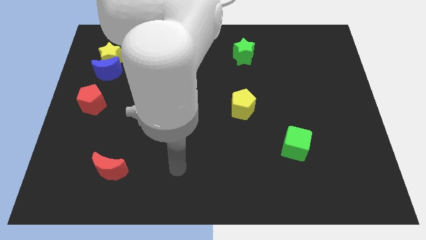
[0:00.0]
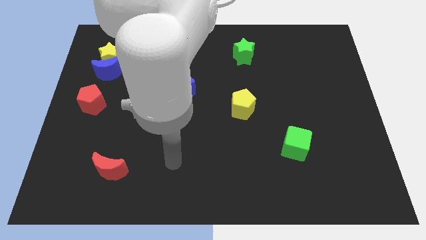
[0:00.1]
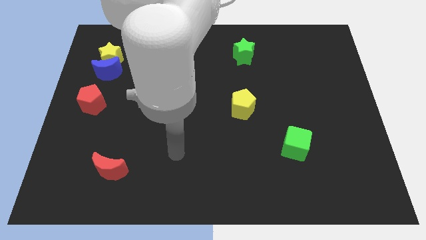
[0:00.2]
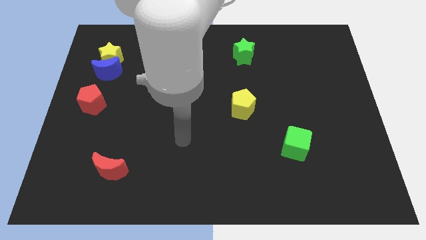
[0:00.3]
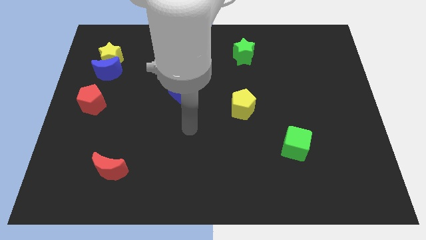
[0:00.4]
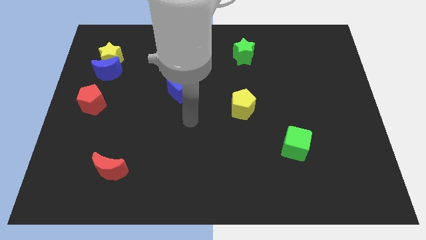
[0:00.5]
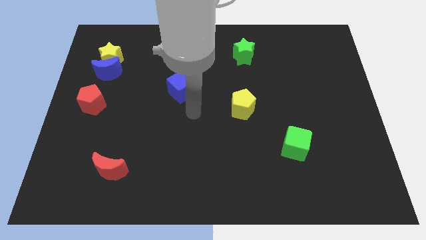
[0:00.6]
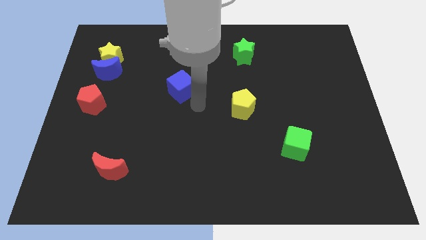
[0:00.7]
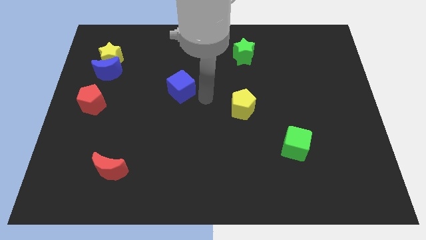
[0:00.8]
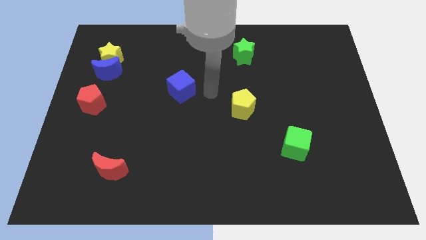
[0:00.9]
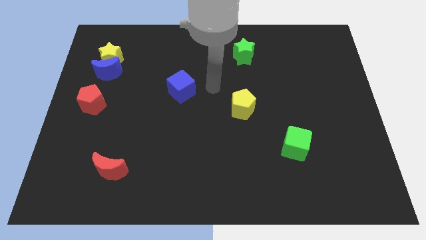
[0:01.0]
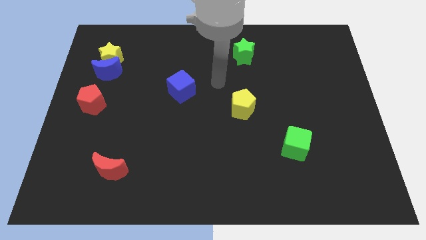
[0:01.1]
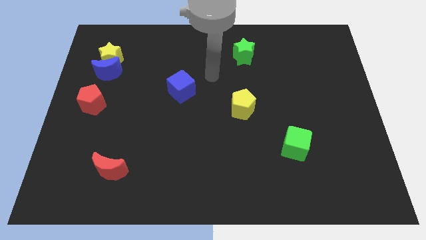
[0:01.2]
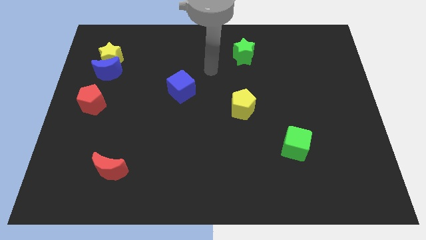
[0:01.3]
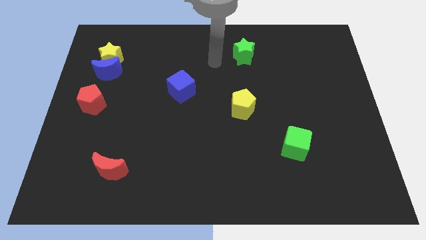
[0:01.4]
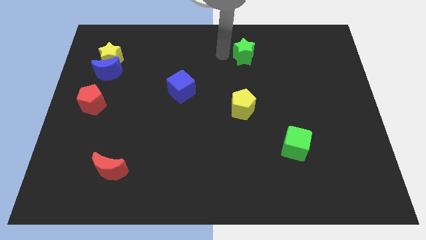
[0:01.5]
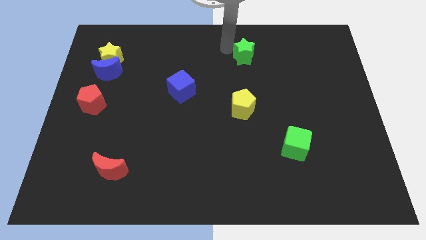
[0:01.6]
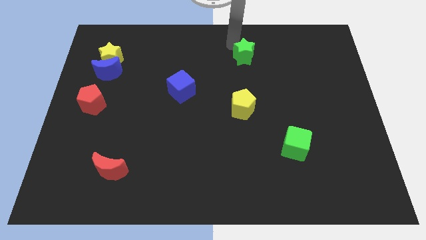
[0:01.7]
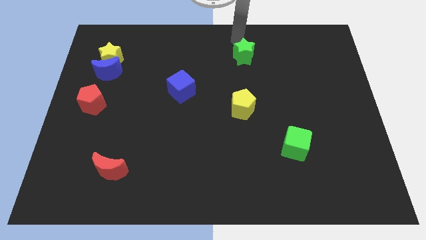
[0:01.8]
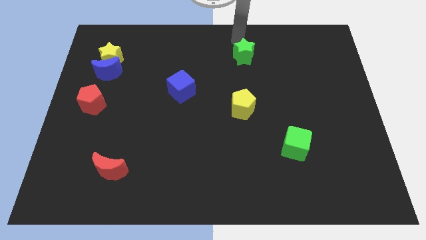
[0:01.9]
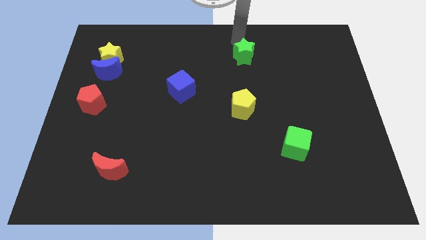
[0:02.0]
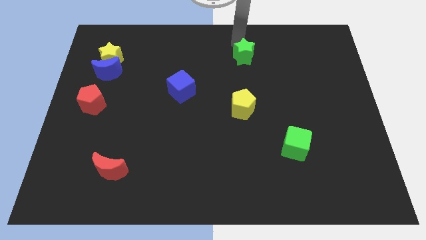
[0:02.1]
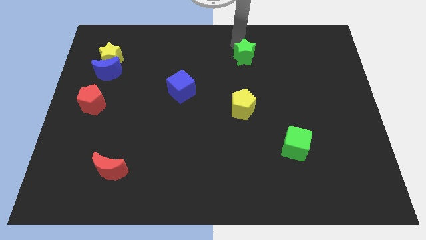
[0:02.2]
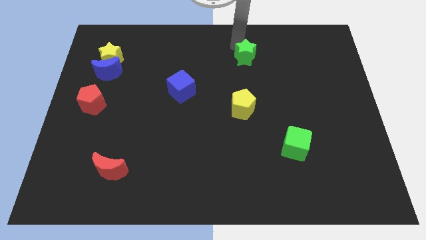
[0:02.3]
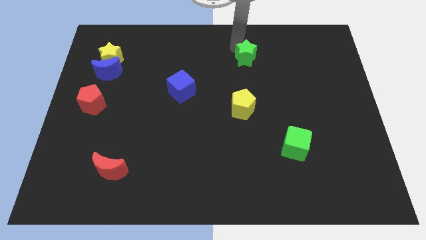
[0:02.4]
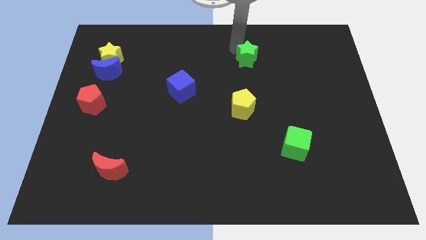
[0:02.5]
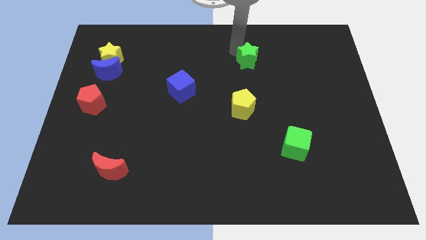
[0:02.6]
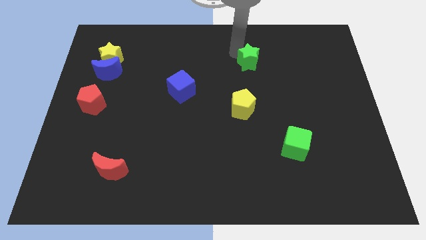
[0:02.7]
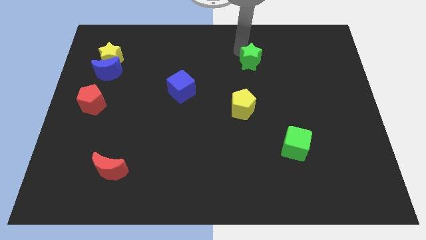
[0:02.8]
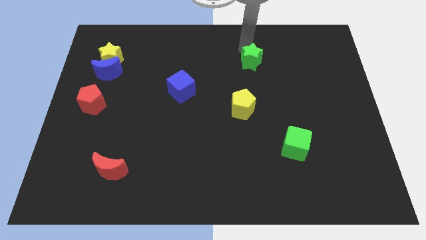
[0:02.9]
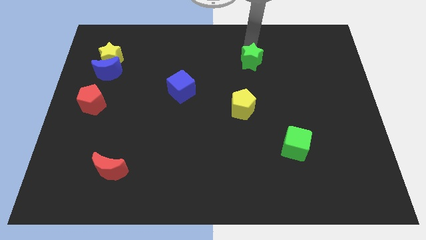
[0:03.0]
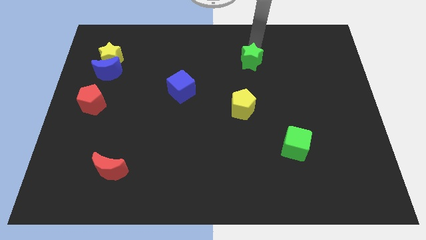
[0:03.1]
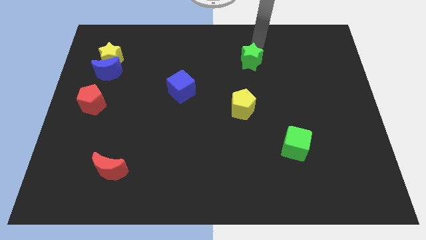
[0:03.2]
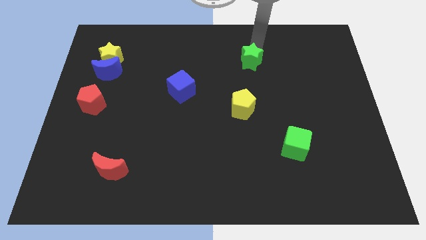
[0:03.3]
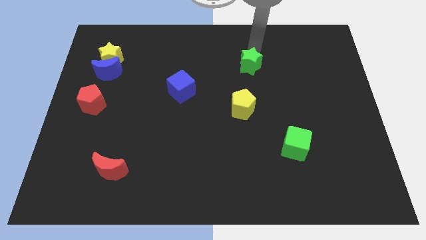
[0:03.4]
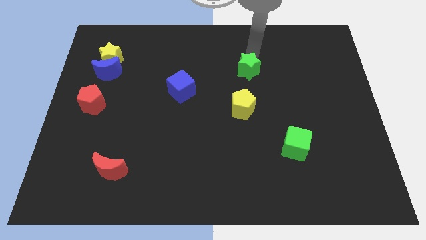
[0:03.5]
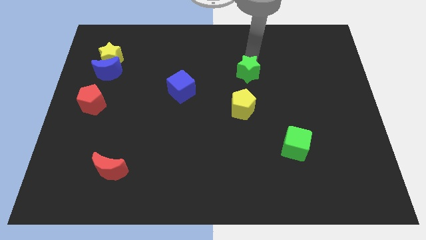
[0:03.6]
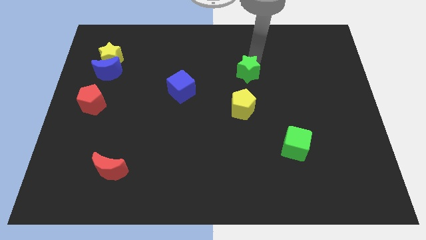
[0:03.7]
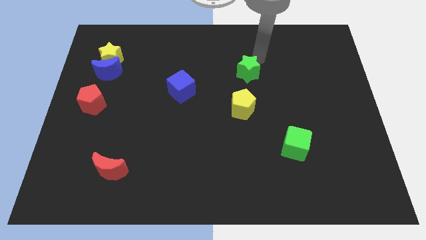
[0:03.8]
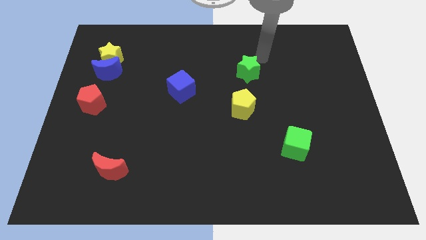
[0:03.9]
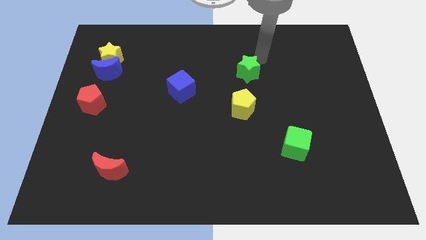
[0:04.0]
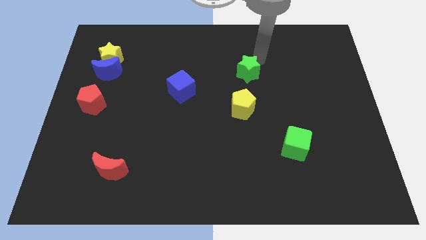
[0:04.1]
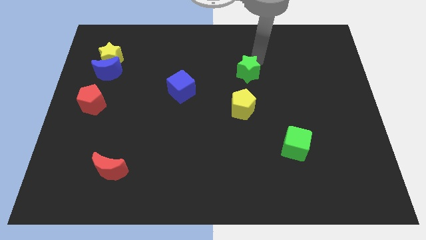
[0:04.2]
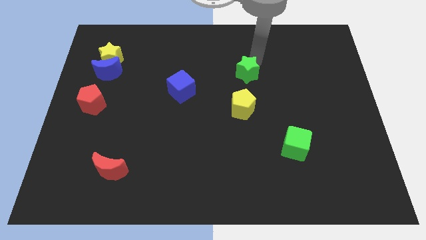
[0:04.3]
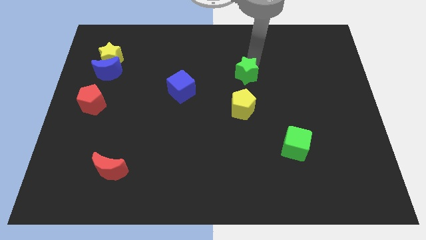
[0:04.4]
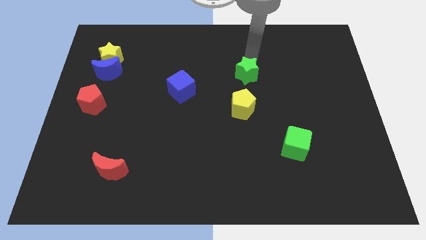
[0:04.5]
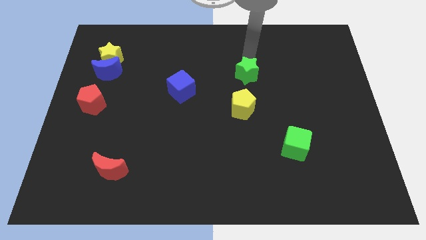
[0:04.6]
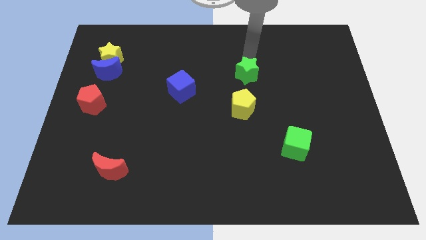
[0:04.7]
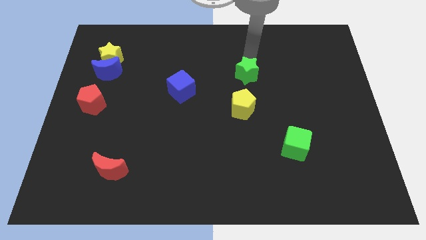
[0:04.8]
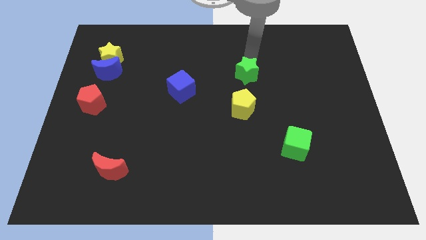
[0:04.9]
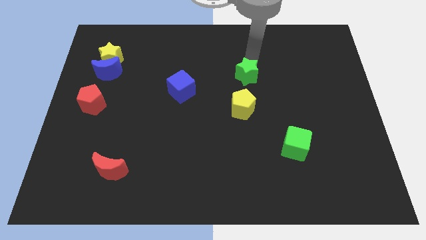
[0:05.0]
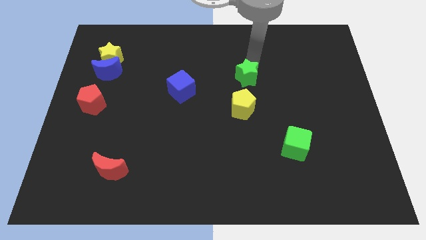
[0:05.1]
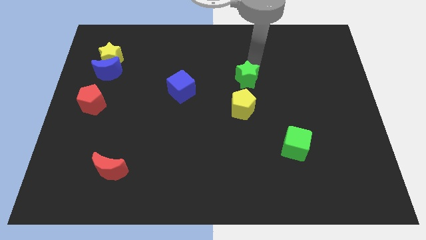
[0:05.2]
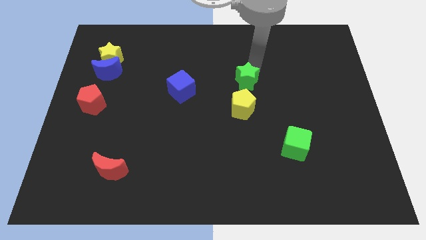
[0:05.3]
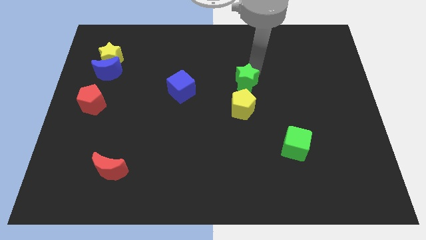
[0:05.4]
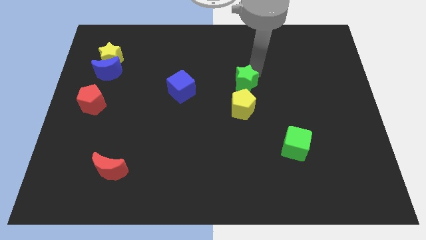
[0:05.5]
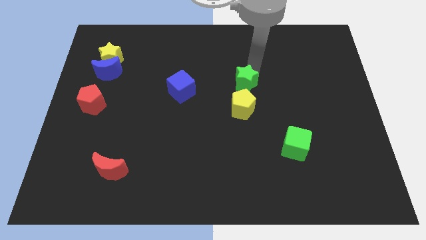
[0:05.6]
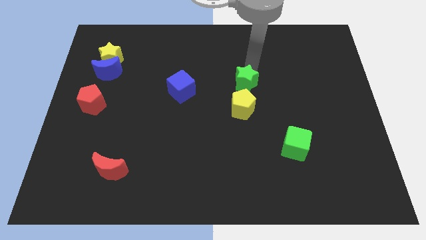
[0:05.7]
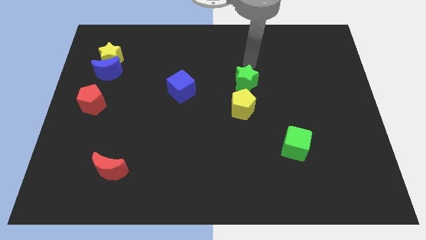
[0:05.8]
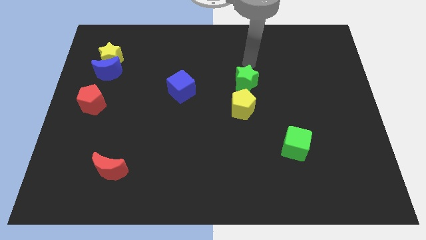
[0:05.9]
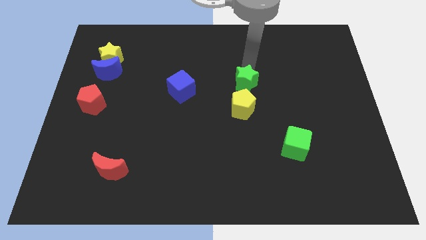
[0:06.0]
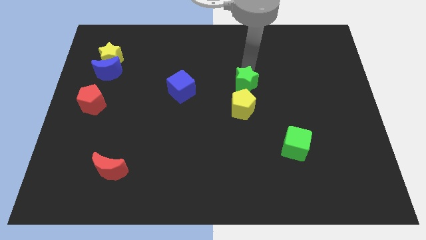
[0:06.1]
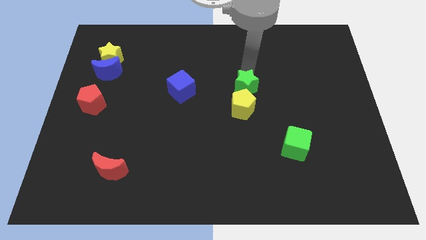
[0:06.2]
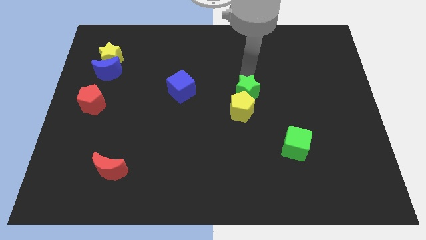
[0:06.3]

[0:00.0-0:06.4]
put the green star towards the yellow pentagon

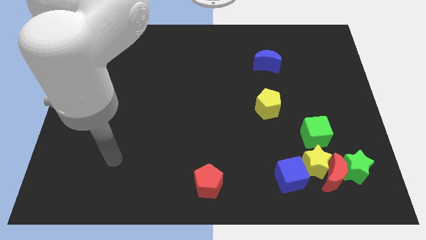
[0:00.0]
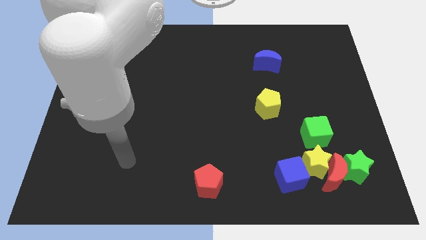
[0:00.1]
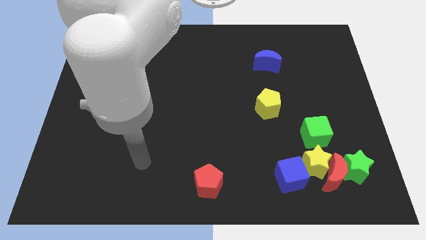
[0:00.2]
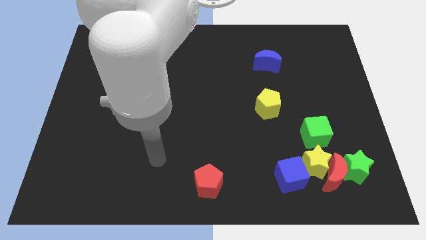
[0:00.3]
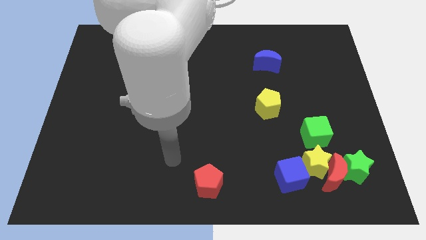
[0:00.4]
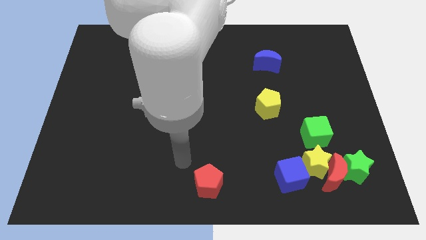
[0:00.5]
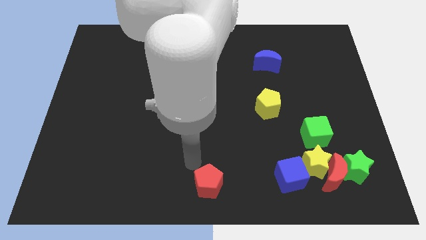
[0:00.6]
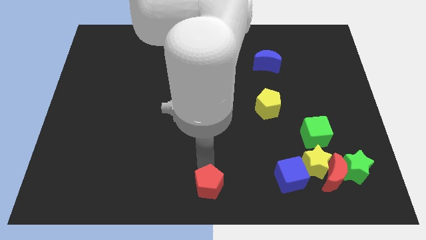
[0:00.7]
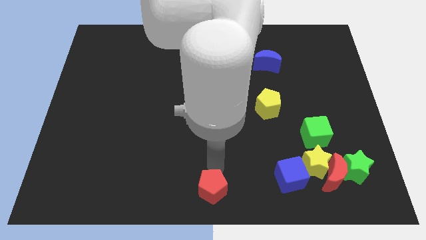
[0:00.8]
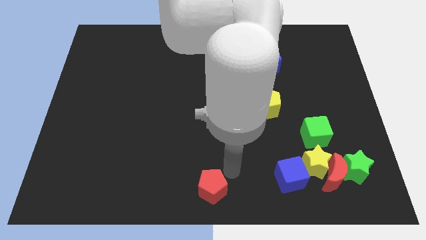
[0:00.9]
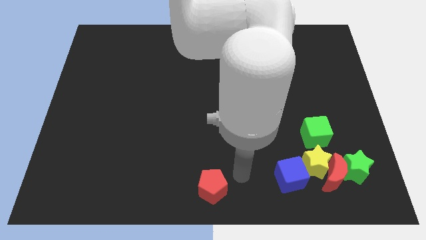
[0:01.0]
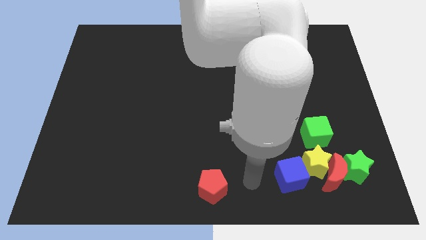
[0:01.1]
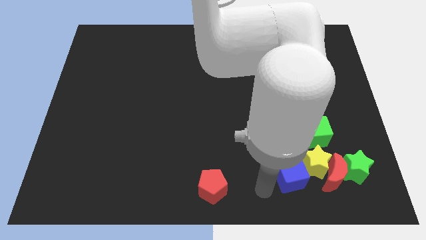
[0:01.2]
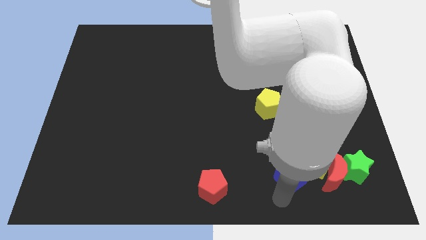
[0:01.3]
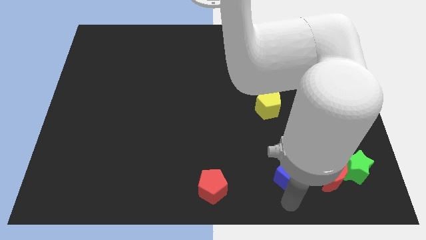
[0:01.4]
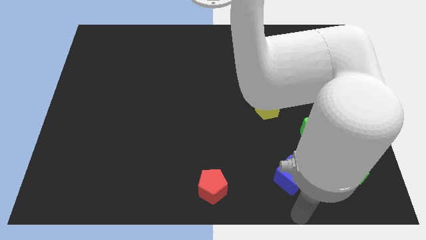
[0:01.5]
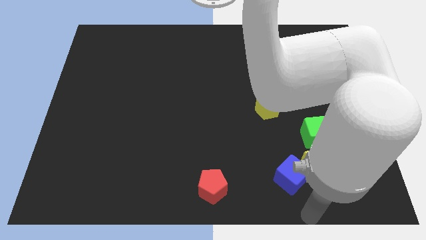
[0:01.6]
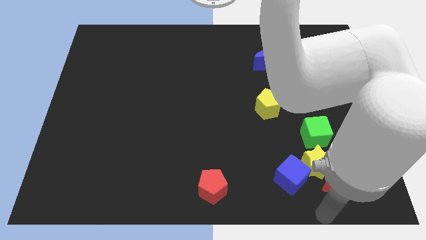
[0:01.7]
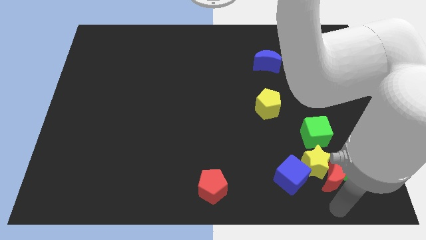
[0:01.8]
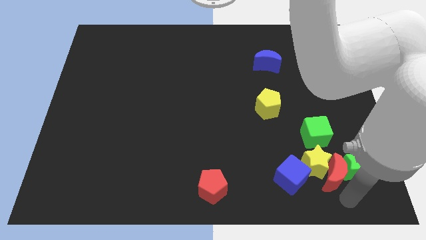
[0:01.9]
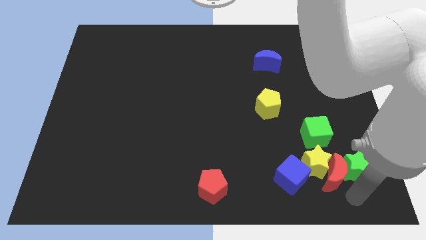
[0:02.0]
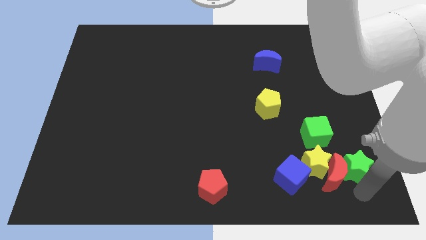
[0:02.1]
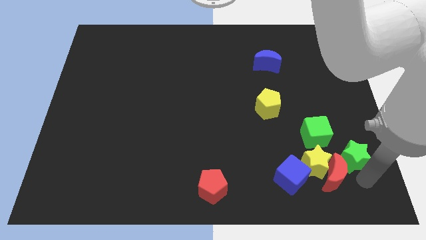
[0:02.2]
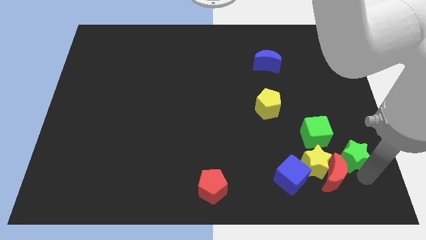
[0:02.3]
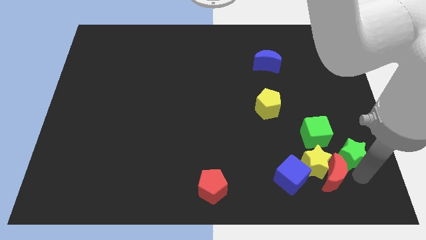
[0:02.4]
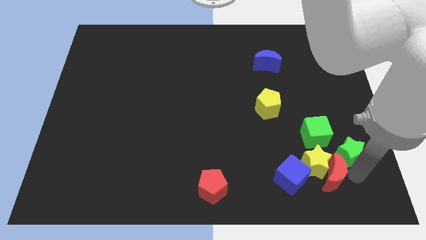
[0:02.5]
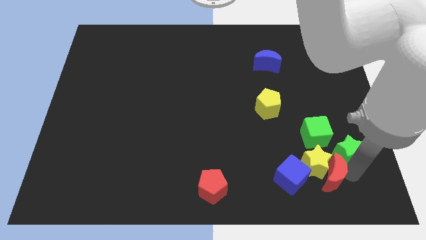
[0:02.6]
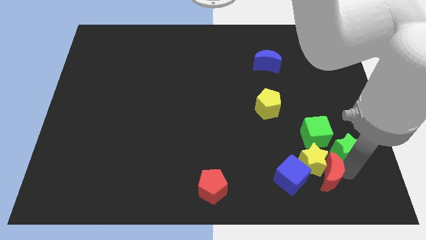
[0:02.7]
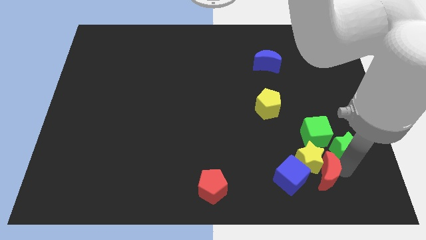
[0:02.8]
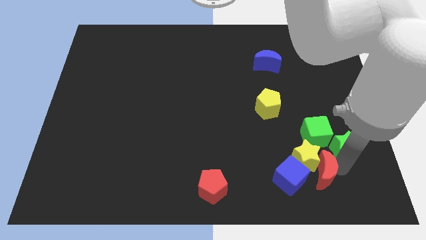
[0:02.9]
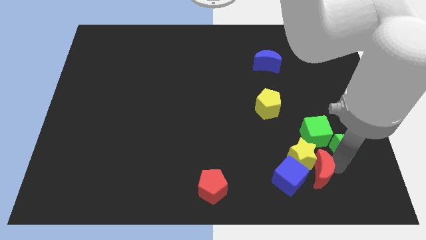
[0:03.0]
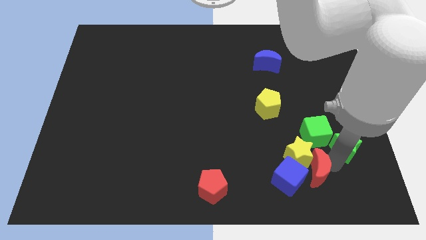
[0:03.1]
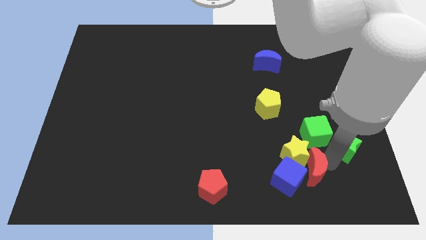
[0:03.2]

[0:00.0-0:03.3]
move the red moon to the blue cube
